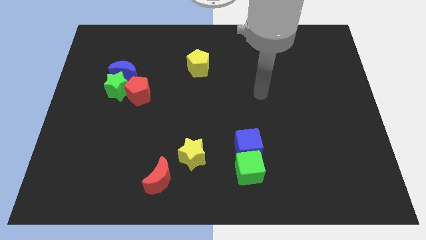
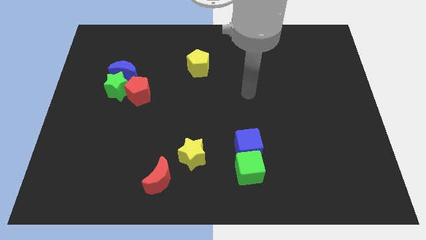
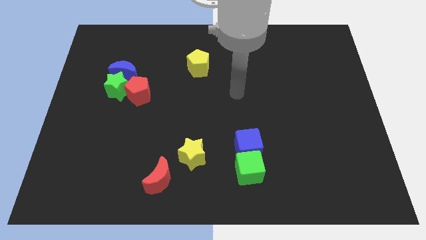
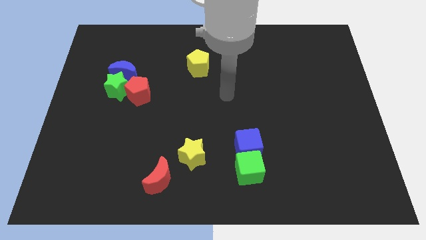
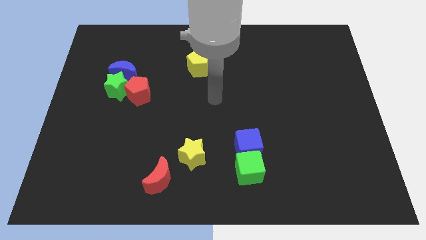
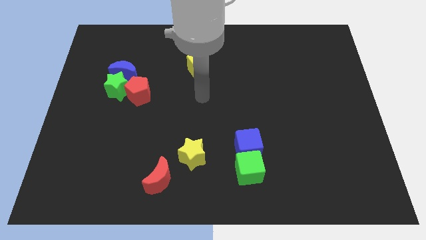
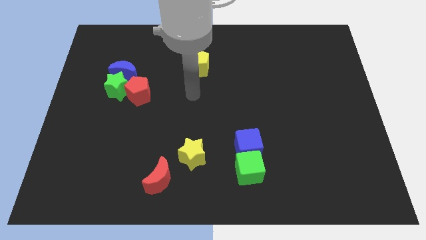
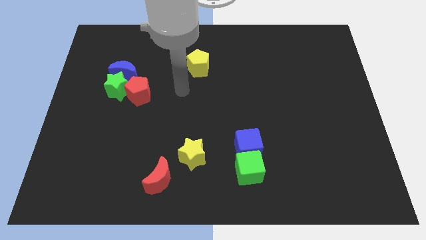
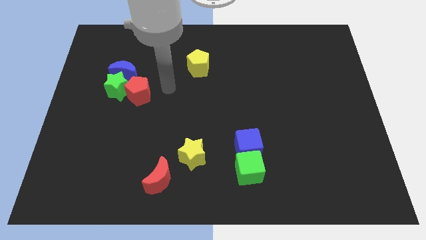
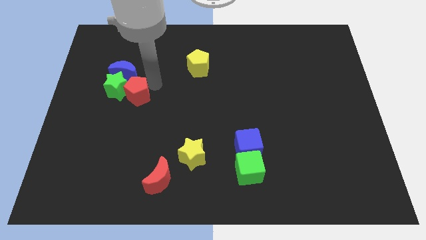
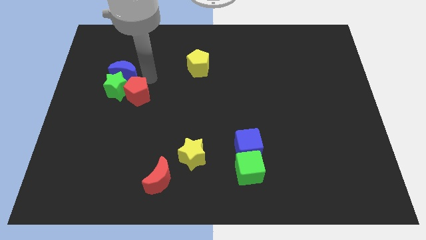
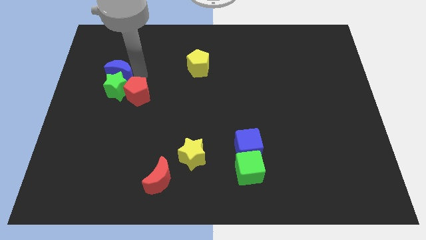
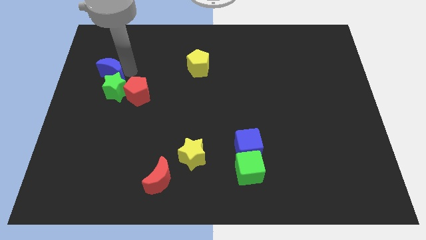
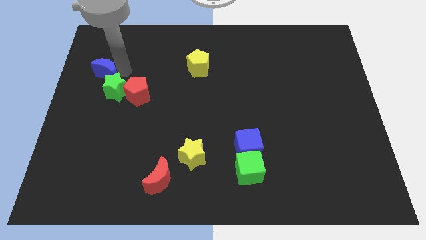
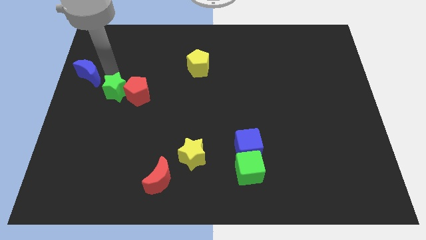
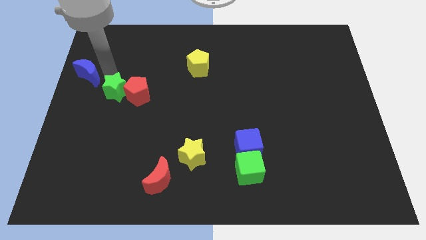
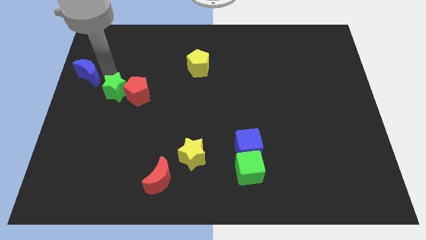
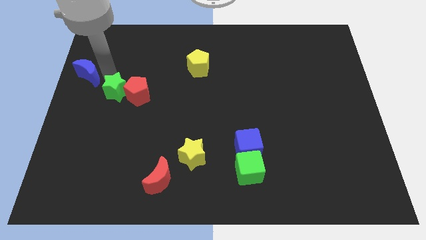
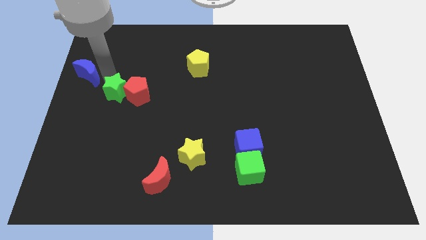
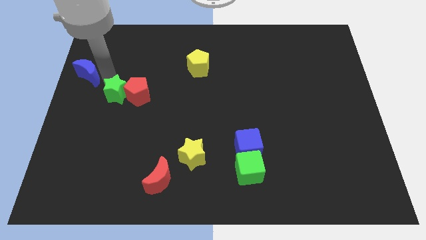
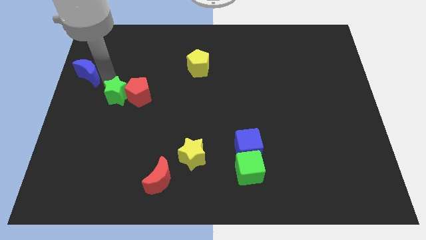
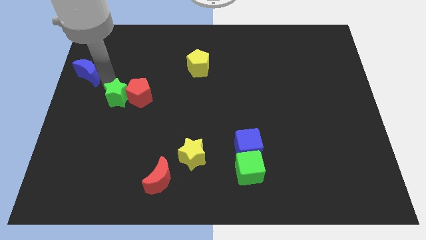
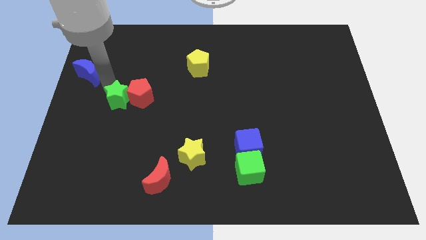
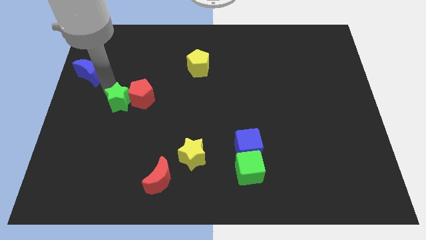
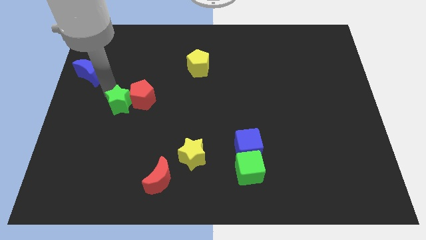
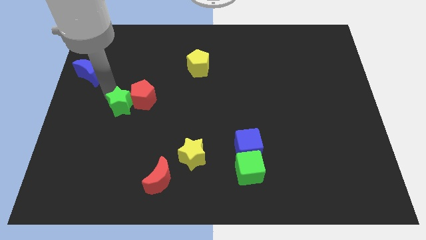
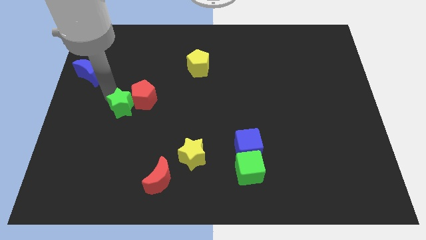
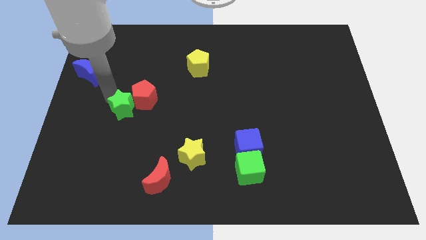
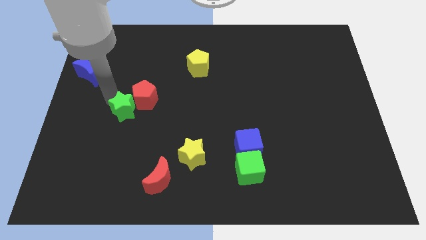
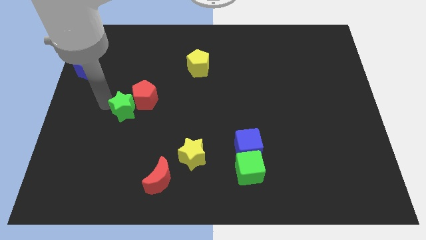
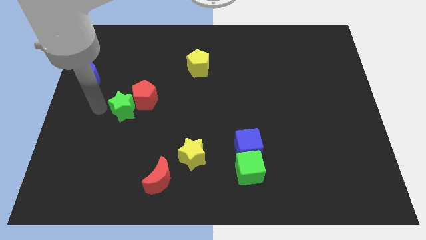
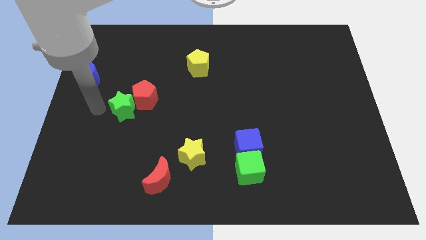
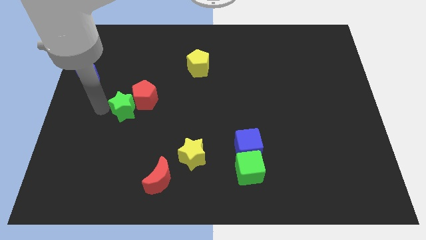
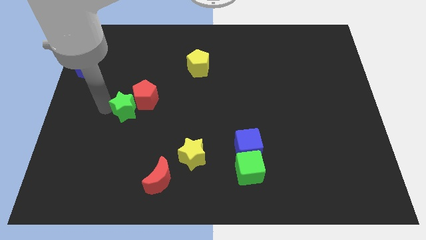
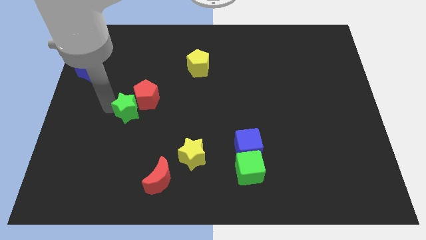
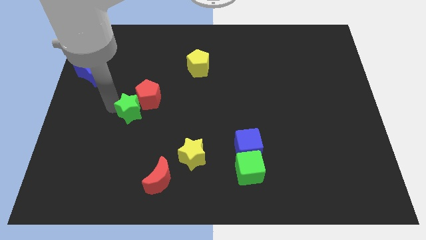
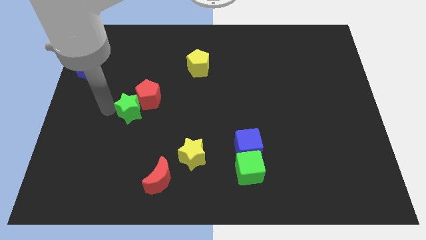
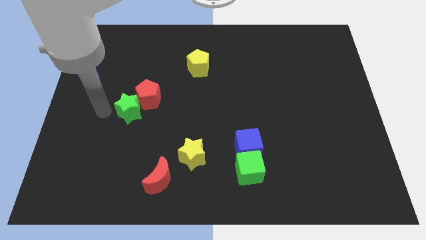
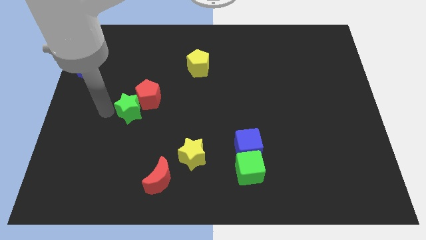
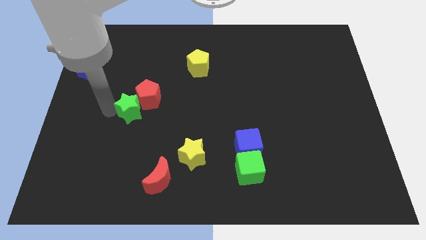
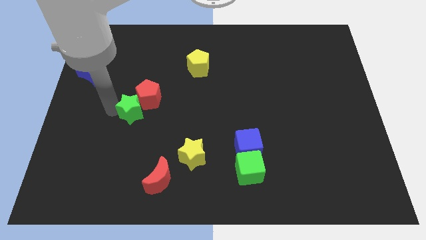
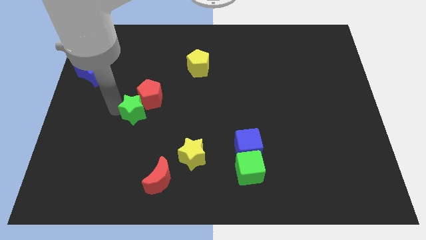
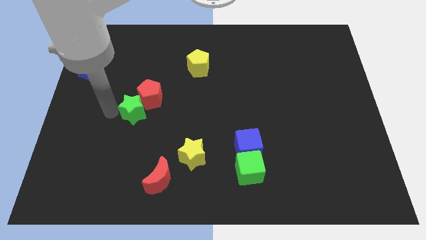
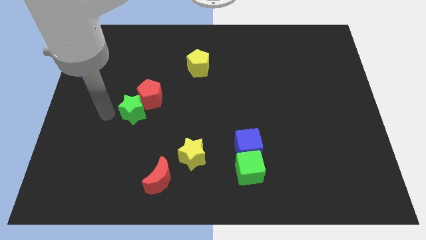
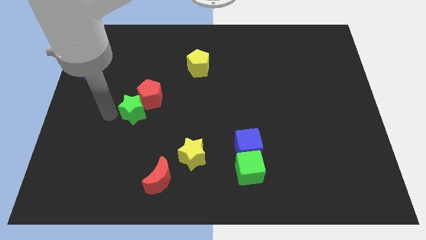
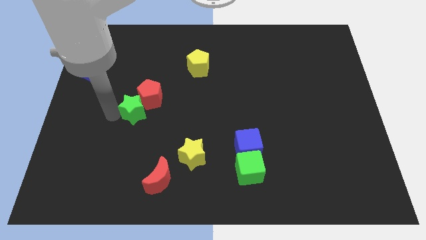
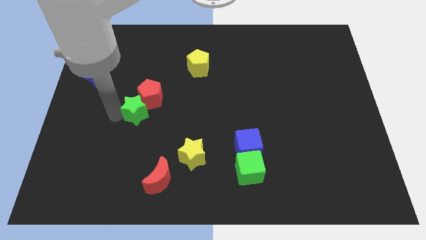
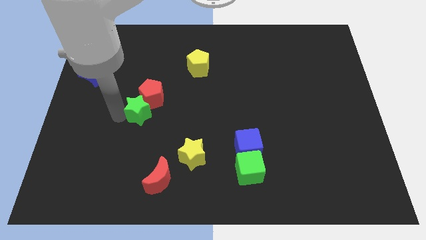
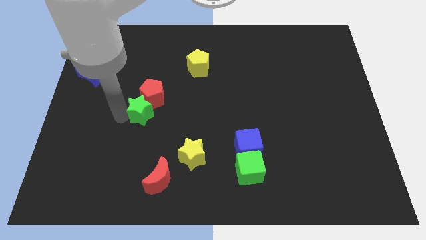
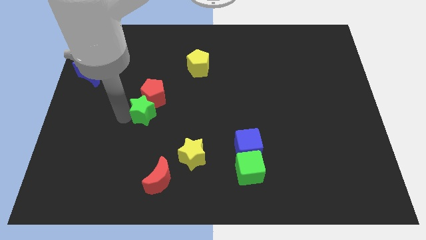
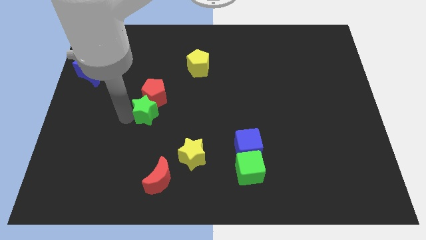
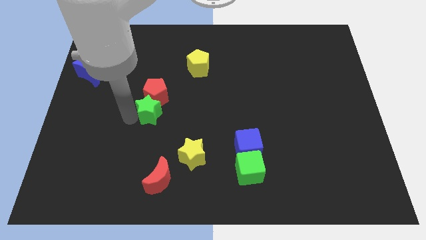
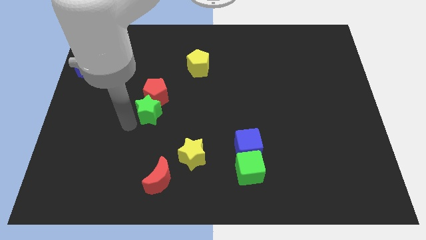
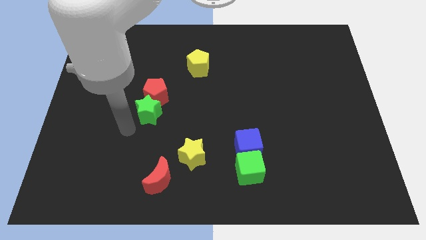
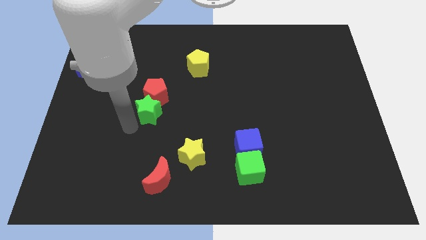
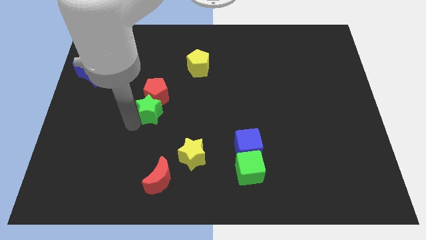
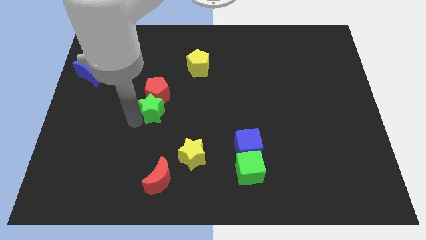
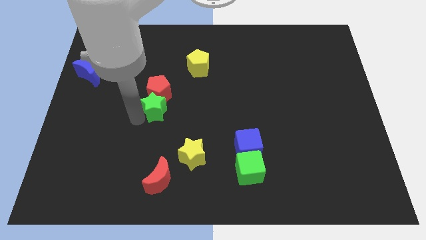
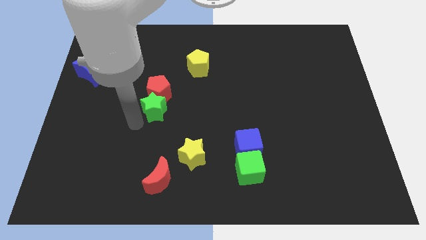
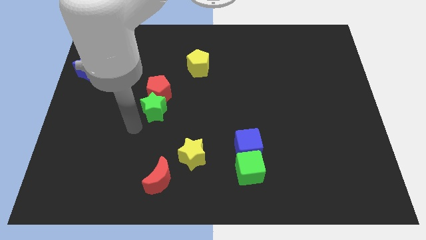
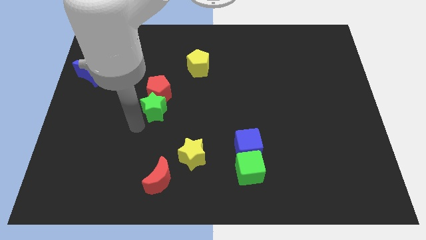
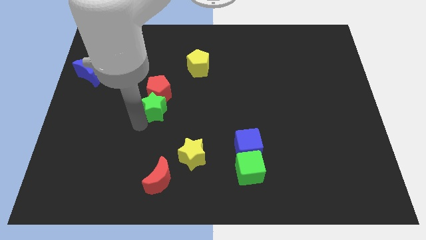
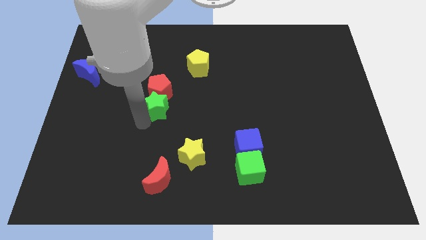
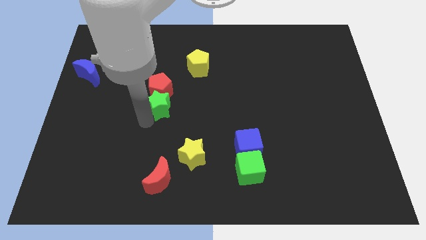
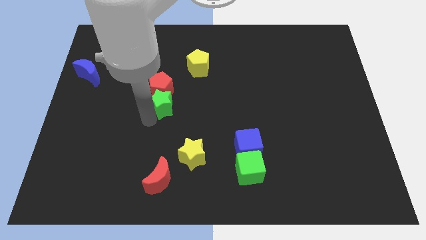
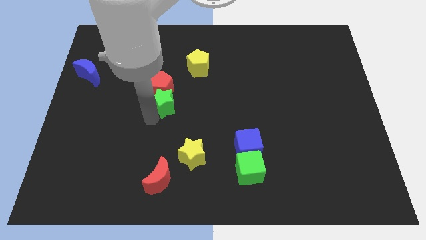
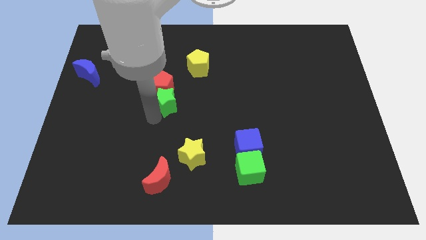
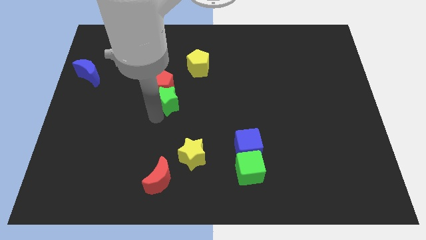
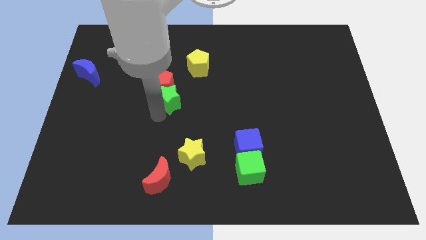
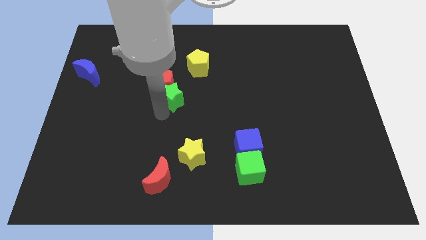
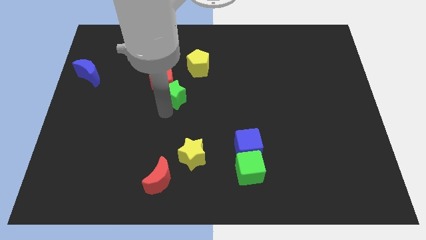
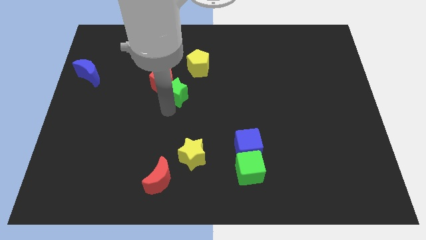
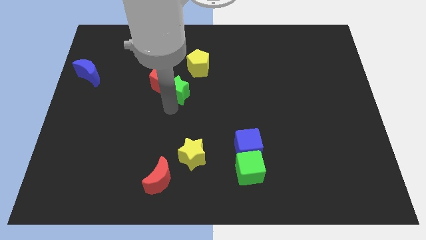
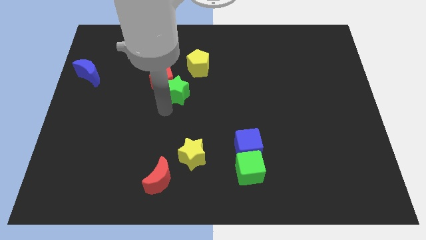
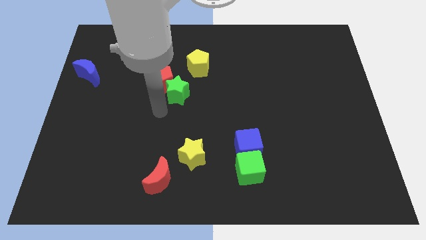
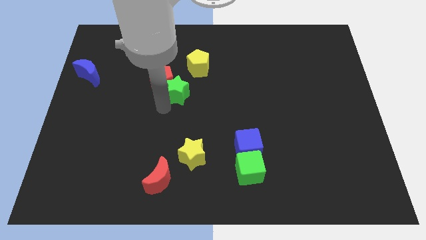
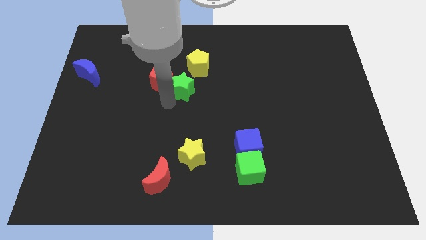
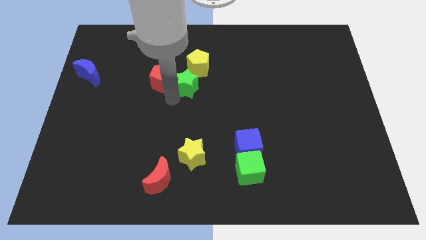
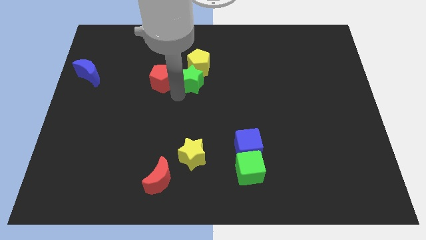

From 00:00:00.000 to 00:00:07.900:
move the green star close to the yellow pentagon
